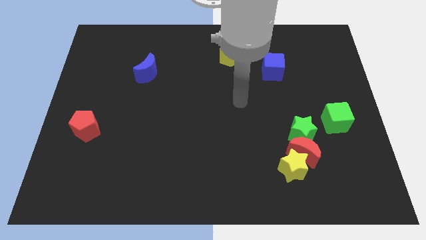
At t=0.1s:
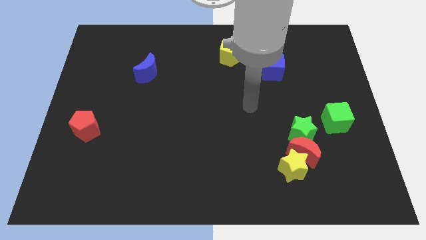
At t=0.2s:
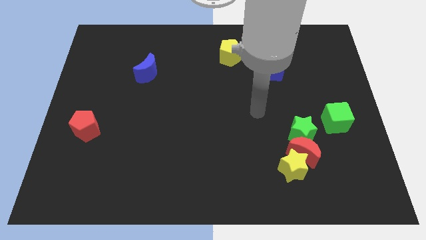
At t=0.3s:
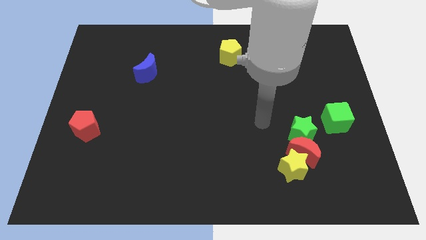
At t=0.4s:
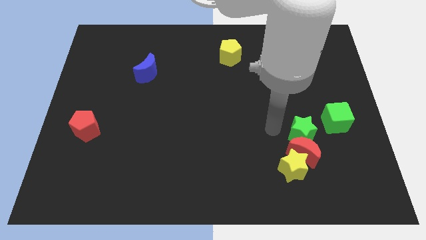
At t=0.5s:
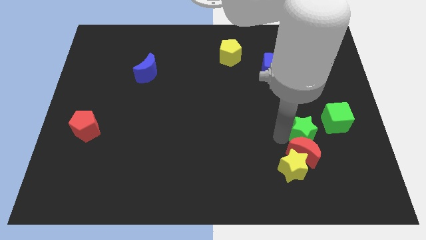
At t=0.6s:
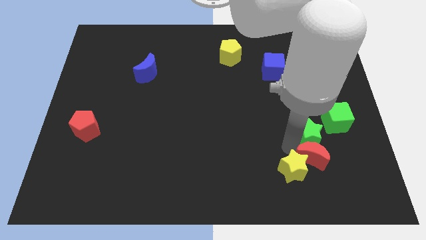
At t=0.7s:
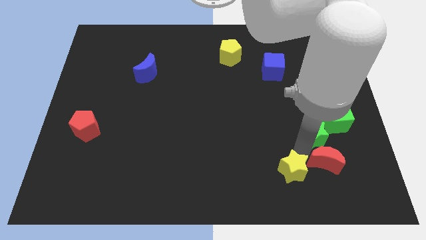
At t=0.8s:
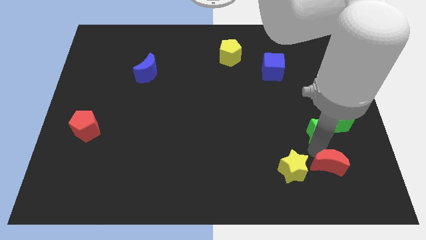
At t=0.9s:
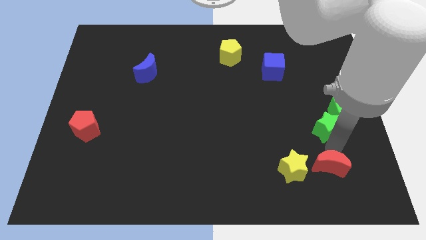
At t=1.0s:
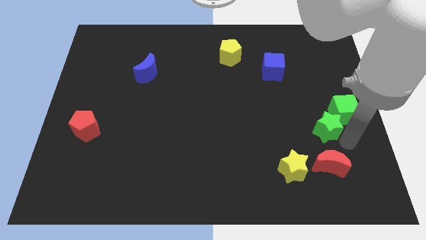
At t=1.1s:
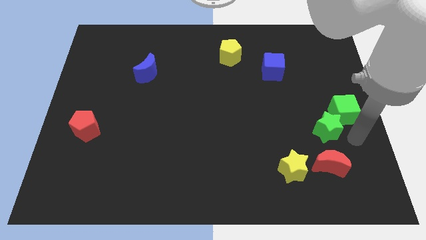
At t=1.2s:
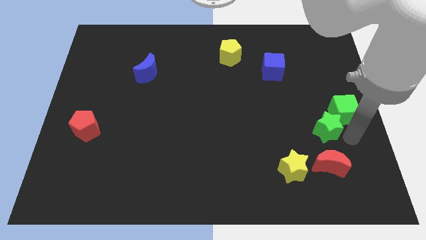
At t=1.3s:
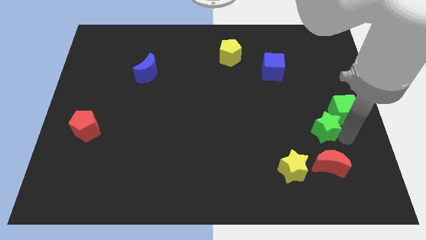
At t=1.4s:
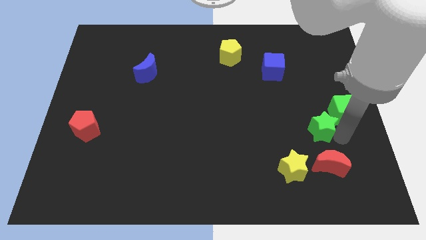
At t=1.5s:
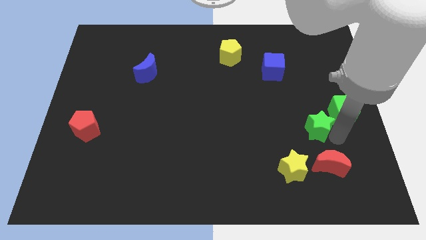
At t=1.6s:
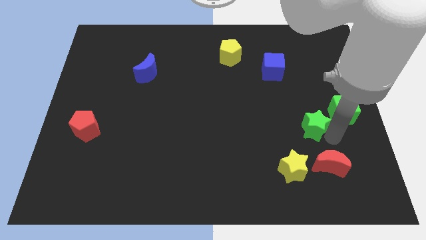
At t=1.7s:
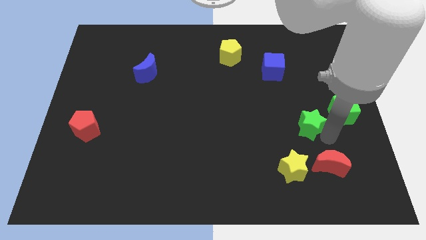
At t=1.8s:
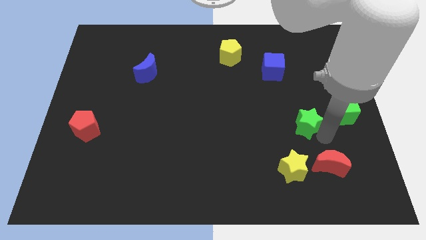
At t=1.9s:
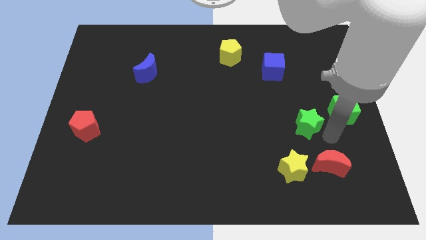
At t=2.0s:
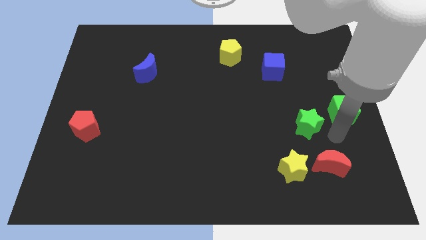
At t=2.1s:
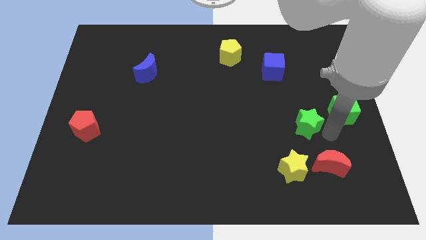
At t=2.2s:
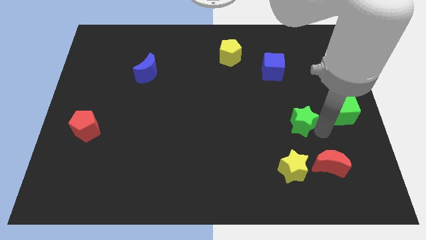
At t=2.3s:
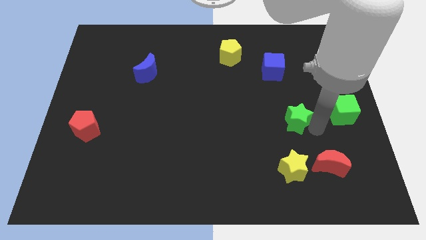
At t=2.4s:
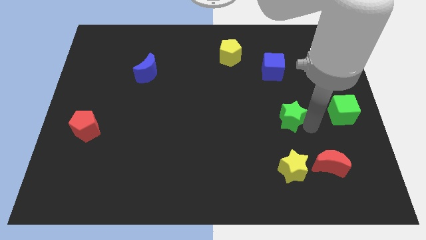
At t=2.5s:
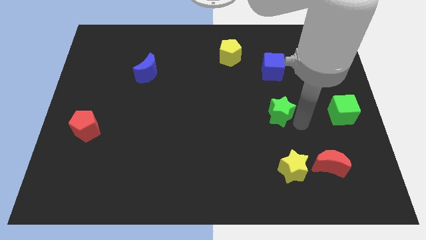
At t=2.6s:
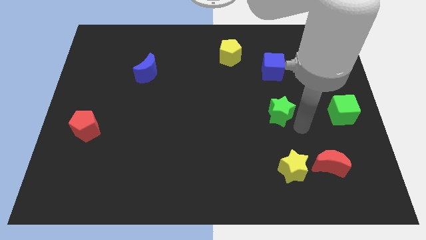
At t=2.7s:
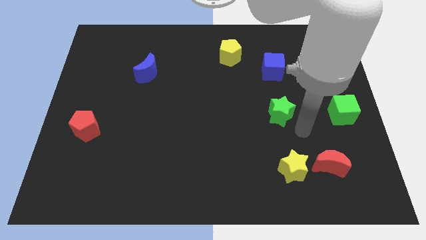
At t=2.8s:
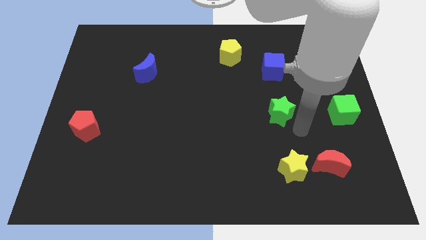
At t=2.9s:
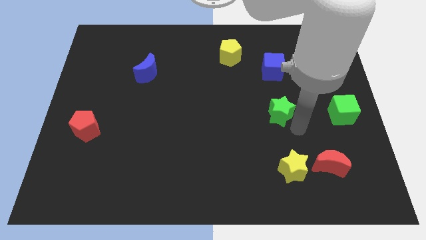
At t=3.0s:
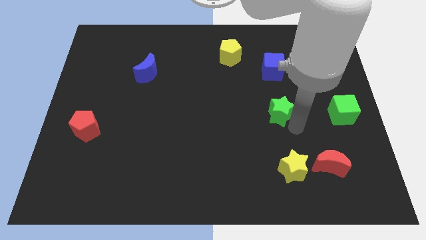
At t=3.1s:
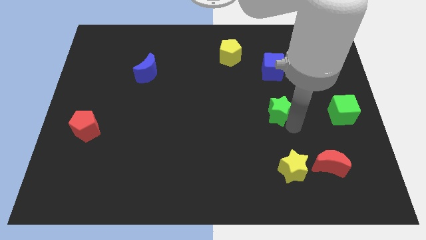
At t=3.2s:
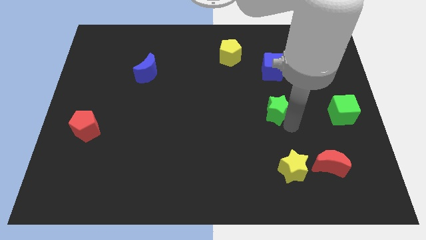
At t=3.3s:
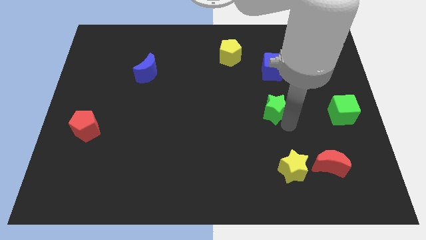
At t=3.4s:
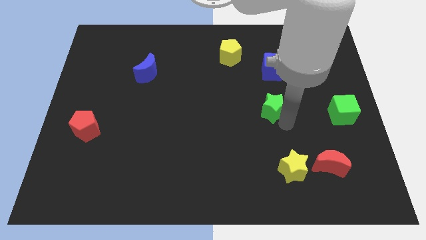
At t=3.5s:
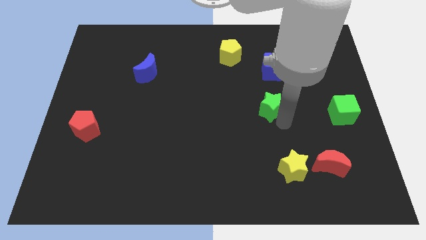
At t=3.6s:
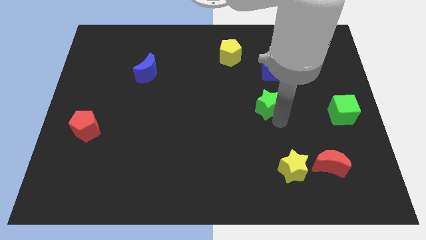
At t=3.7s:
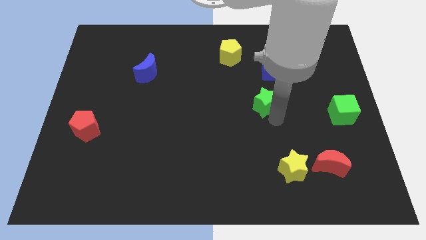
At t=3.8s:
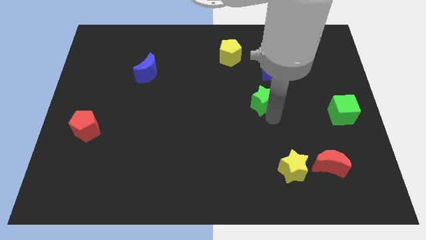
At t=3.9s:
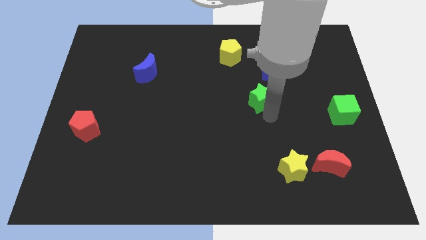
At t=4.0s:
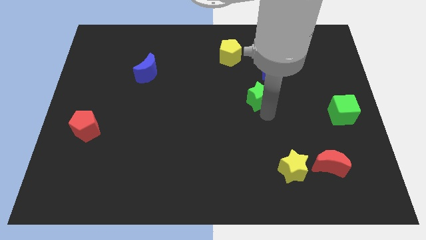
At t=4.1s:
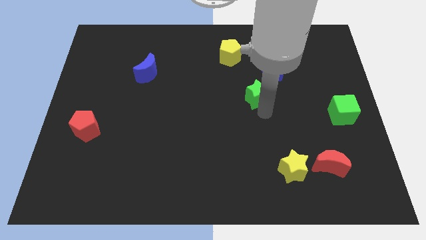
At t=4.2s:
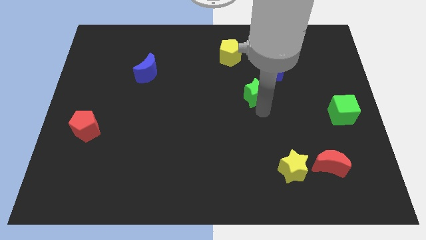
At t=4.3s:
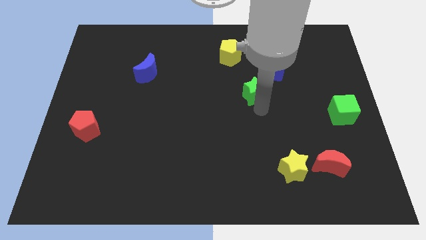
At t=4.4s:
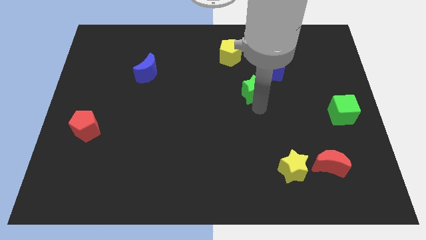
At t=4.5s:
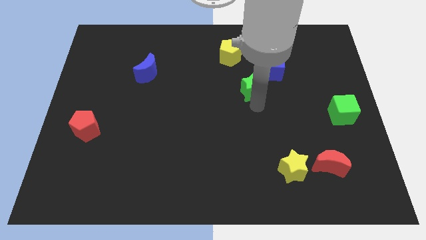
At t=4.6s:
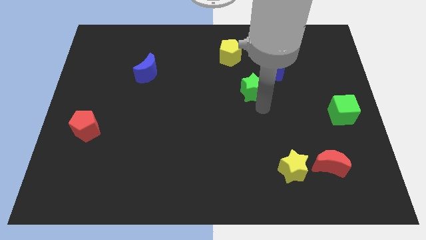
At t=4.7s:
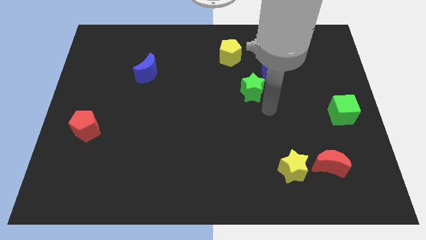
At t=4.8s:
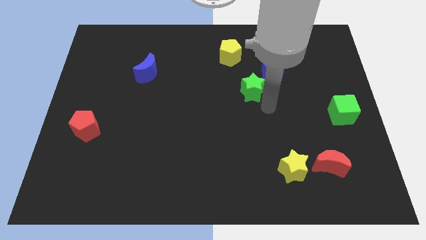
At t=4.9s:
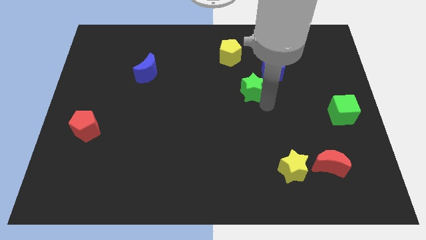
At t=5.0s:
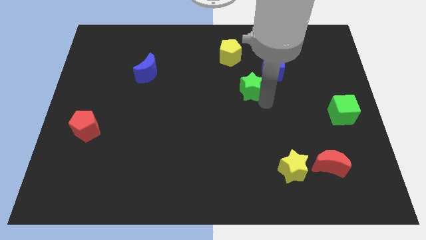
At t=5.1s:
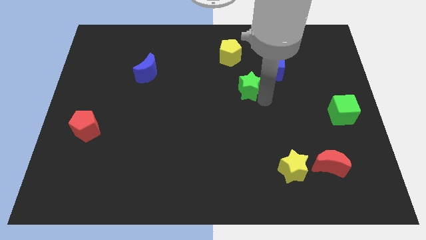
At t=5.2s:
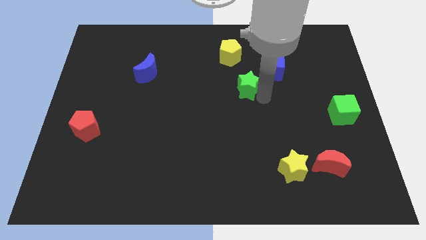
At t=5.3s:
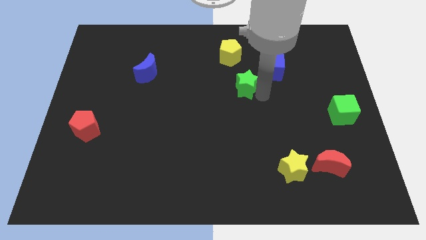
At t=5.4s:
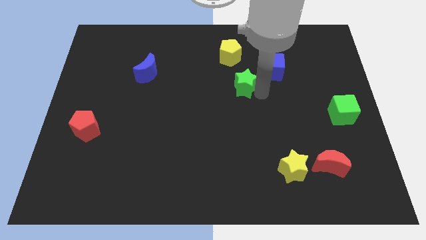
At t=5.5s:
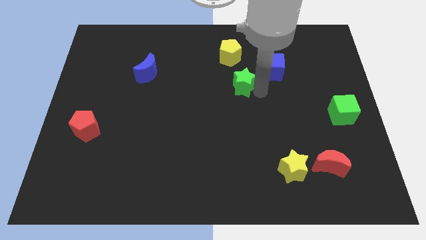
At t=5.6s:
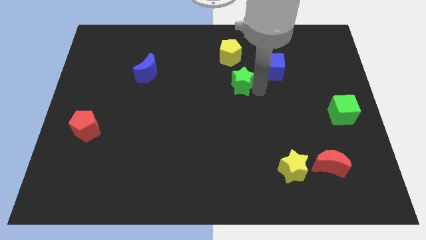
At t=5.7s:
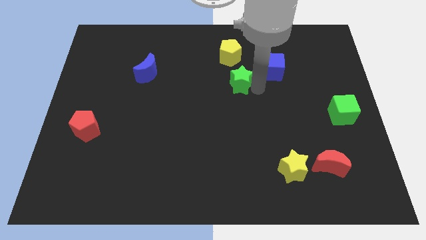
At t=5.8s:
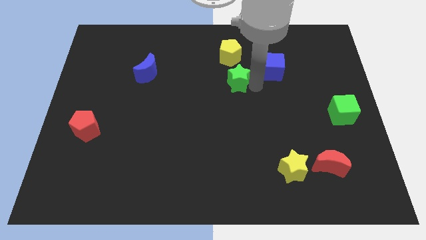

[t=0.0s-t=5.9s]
slide the green star up and then to the left

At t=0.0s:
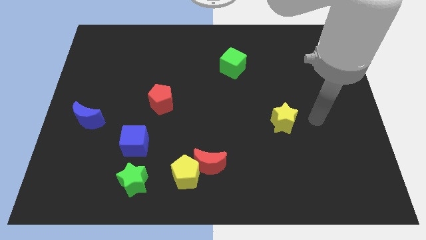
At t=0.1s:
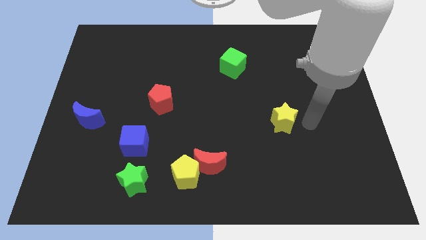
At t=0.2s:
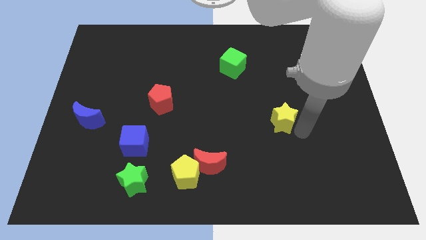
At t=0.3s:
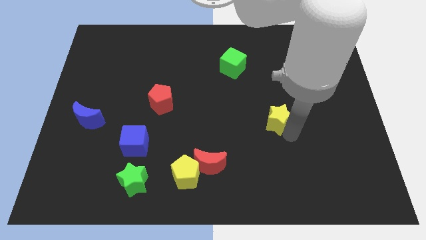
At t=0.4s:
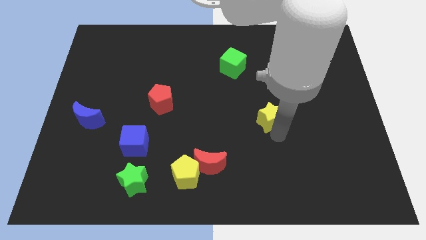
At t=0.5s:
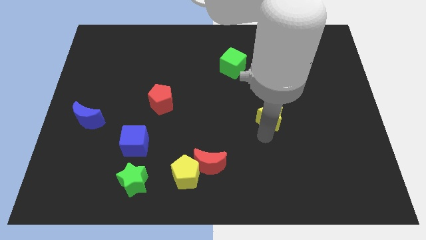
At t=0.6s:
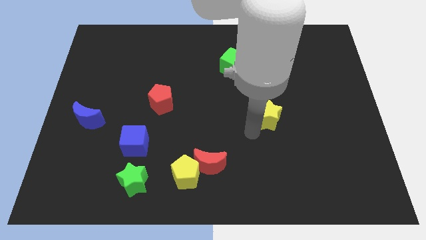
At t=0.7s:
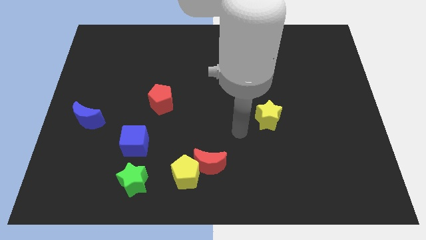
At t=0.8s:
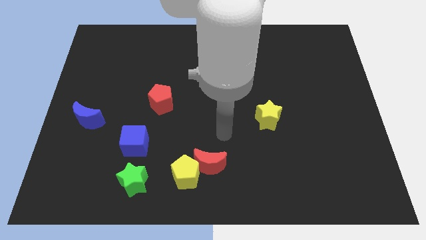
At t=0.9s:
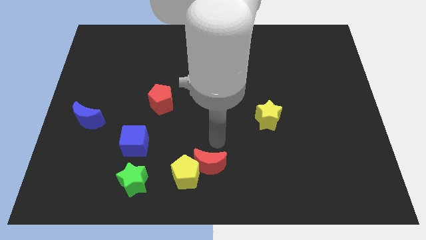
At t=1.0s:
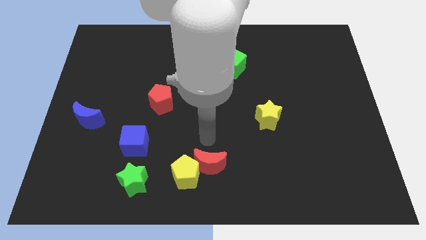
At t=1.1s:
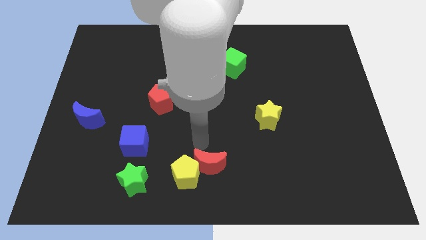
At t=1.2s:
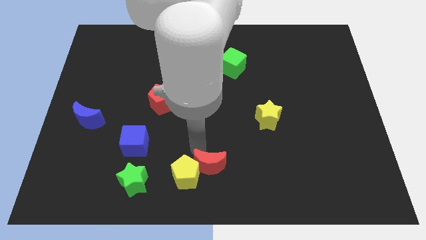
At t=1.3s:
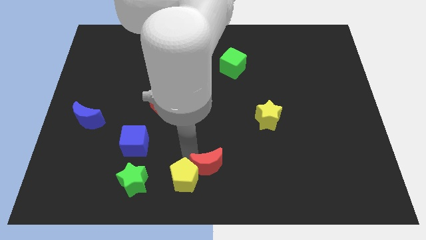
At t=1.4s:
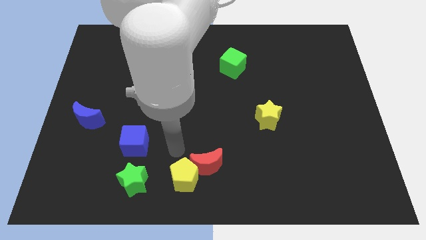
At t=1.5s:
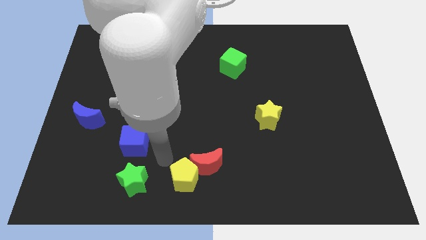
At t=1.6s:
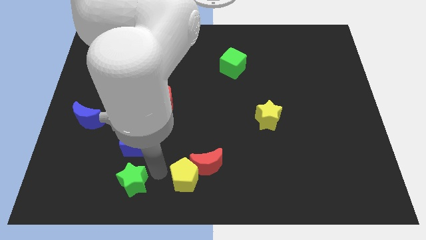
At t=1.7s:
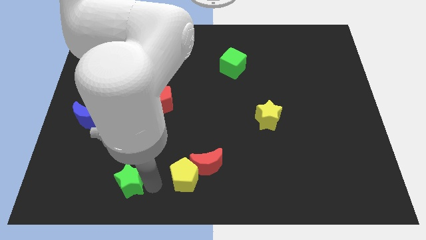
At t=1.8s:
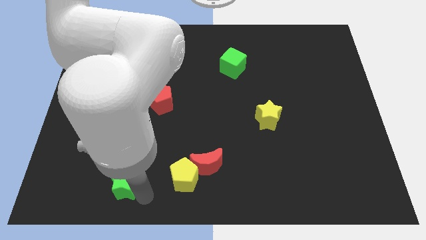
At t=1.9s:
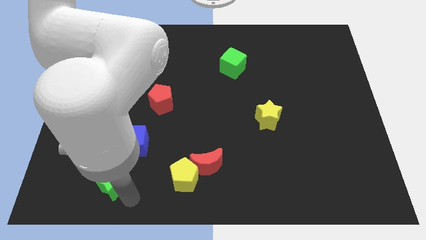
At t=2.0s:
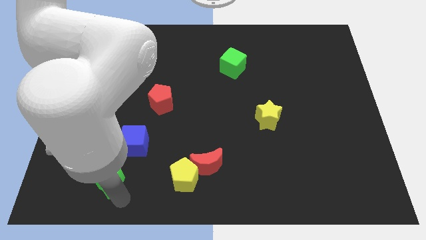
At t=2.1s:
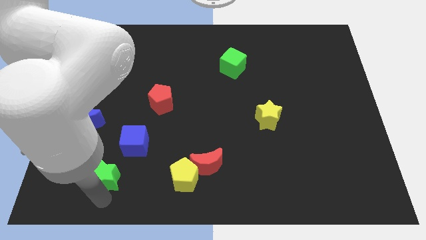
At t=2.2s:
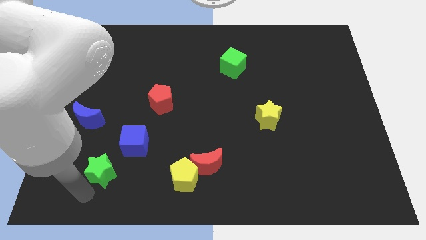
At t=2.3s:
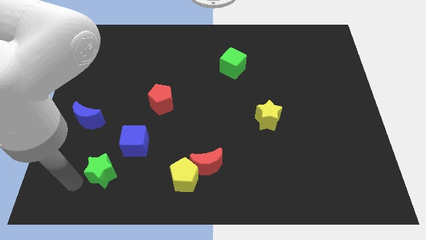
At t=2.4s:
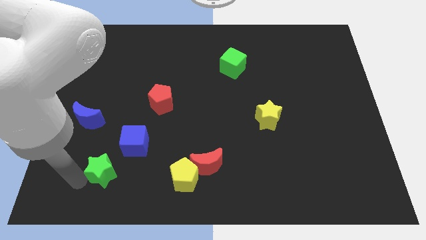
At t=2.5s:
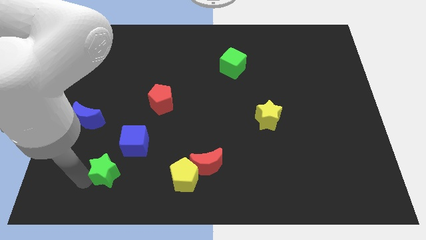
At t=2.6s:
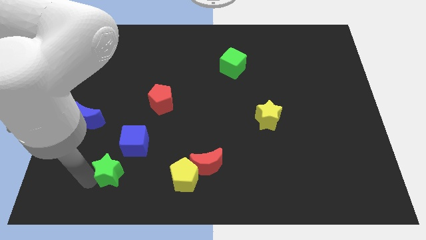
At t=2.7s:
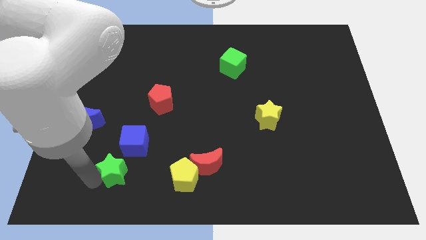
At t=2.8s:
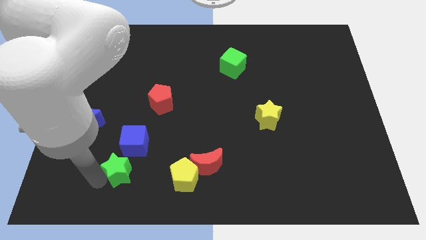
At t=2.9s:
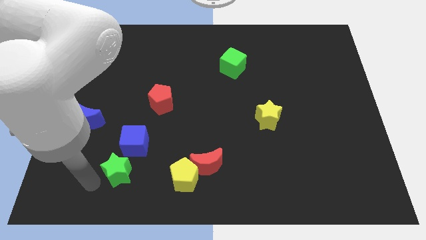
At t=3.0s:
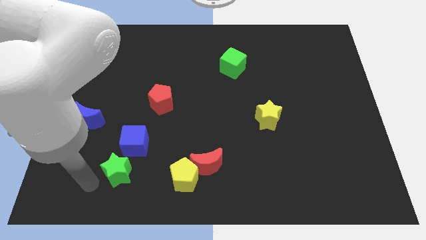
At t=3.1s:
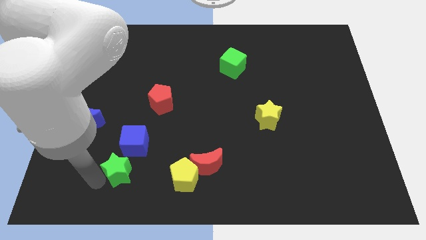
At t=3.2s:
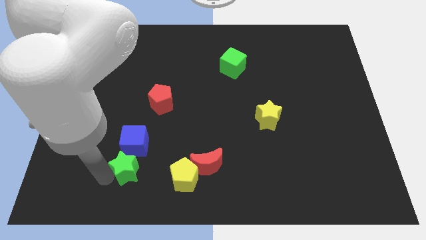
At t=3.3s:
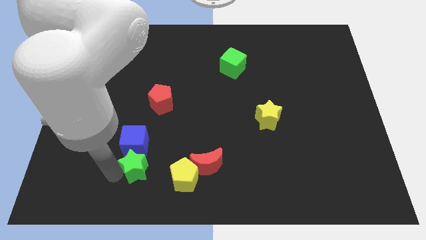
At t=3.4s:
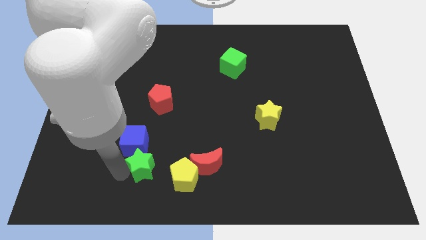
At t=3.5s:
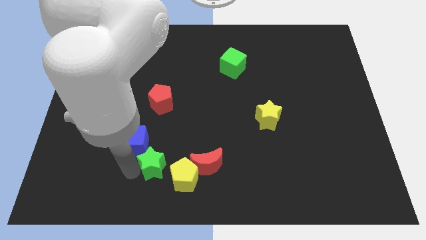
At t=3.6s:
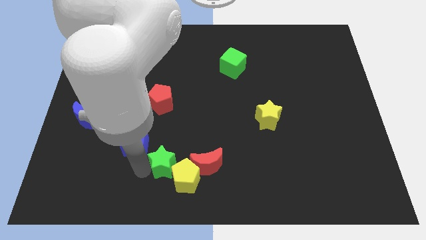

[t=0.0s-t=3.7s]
slide the green star a little up and then to the right
